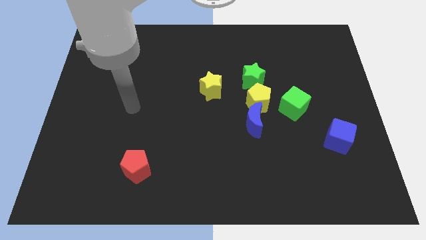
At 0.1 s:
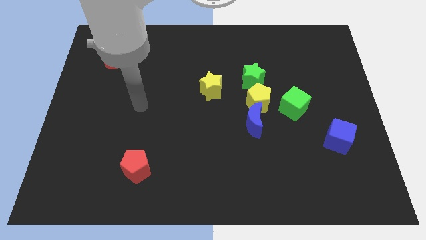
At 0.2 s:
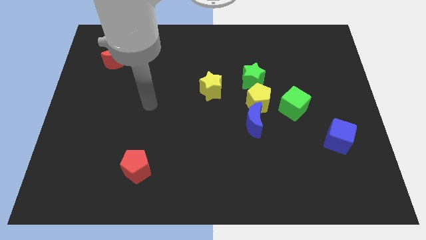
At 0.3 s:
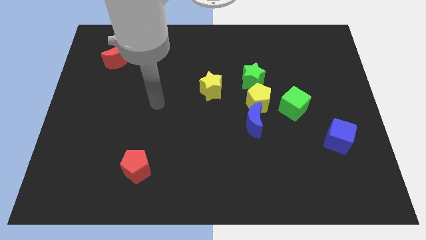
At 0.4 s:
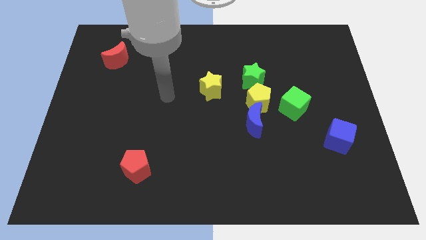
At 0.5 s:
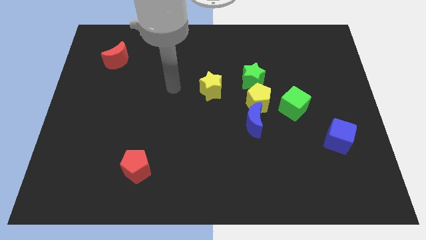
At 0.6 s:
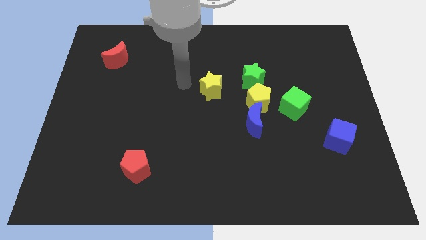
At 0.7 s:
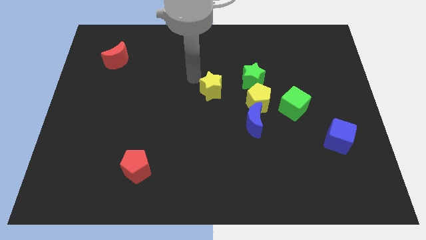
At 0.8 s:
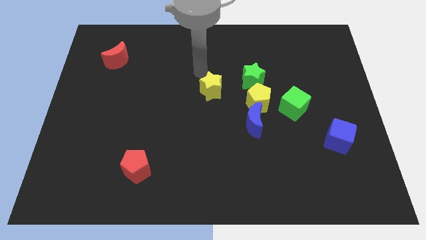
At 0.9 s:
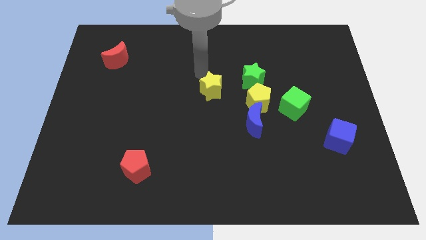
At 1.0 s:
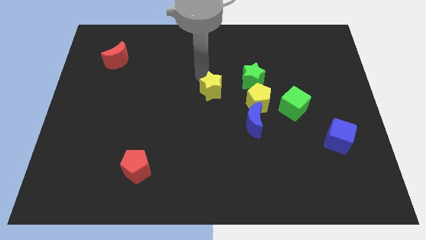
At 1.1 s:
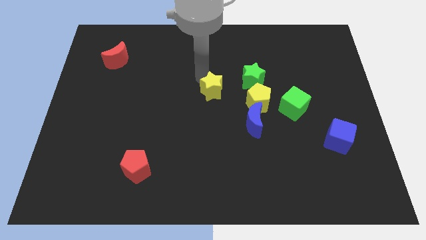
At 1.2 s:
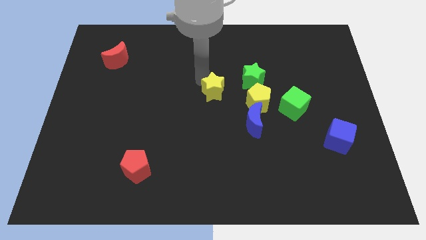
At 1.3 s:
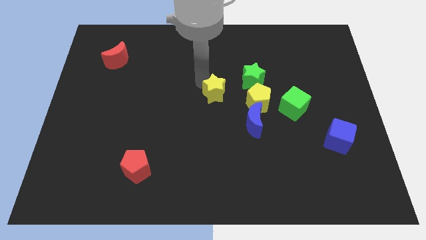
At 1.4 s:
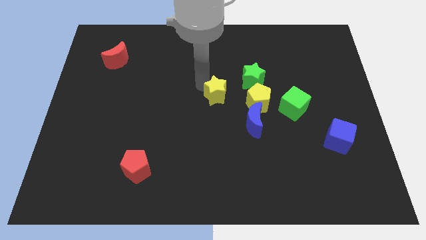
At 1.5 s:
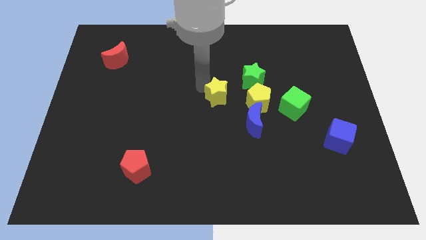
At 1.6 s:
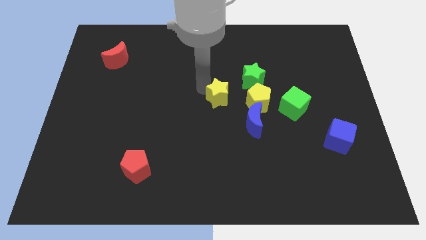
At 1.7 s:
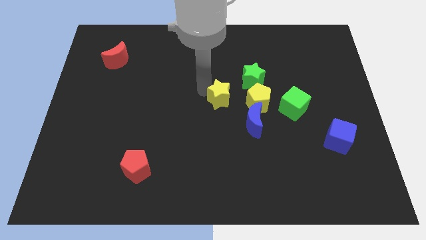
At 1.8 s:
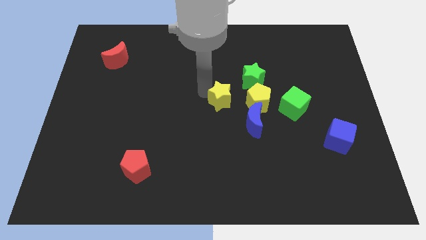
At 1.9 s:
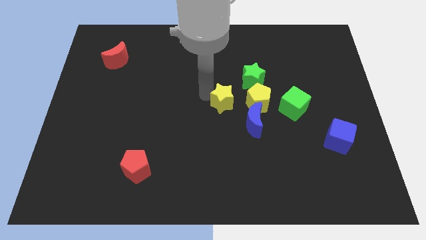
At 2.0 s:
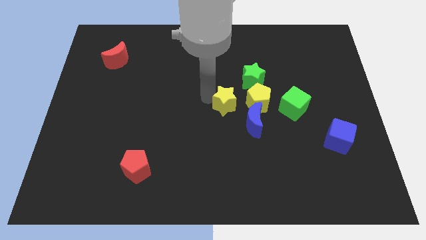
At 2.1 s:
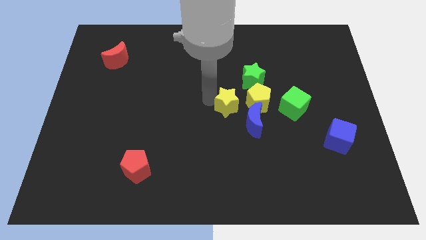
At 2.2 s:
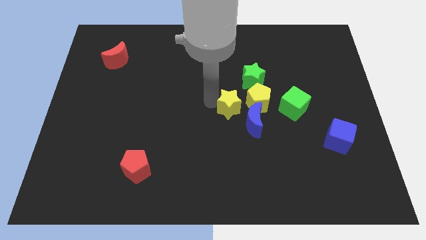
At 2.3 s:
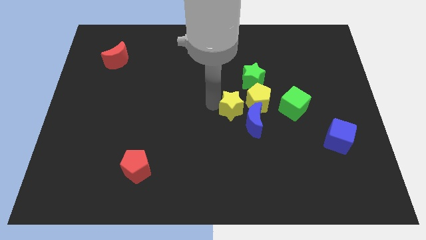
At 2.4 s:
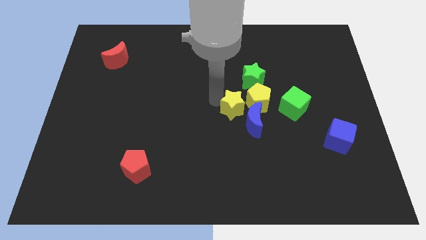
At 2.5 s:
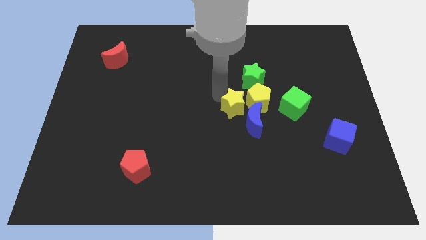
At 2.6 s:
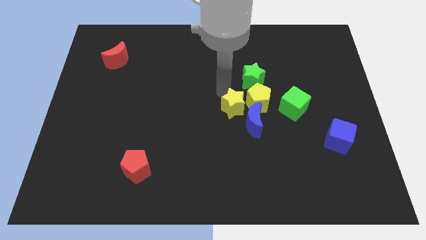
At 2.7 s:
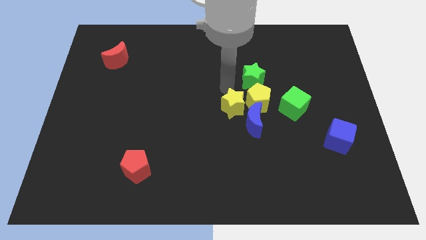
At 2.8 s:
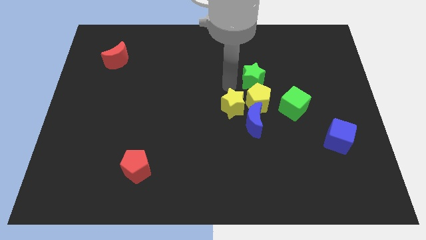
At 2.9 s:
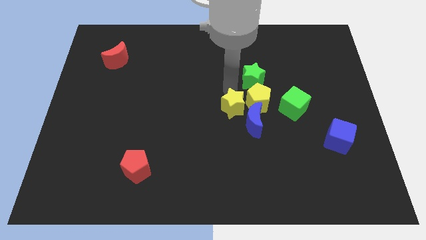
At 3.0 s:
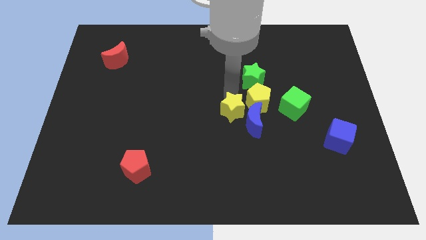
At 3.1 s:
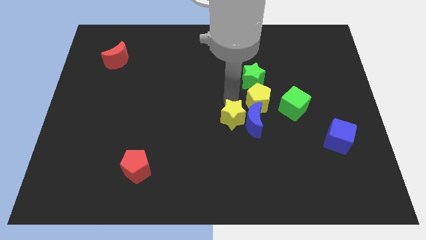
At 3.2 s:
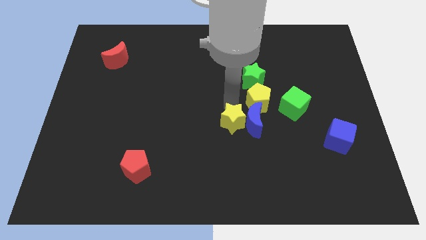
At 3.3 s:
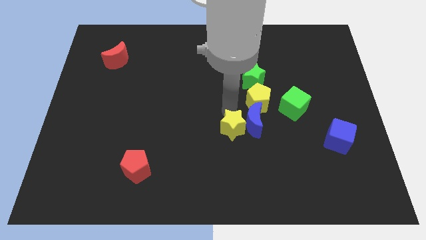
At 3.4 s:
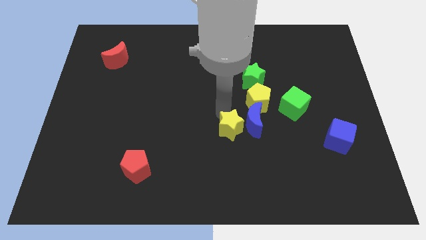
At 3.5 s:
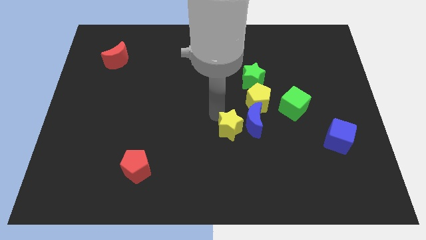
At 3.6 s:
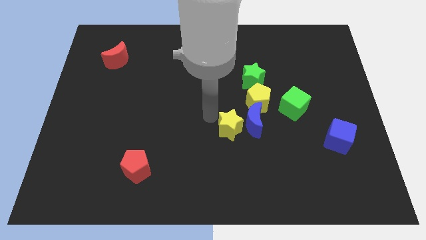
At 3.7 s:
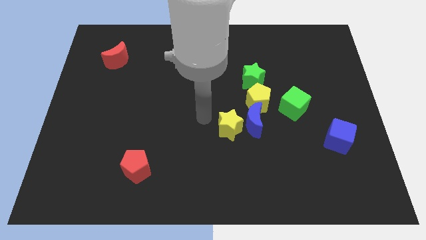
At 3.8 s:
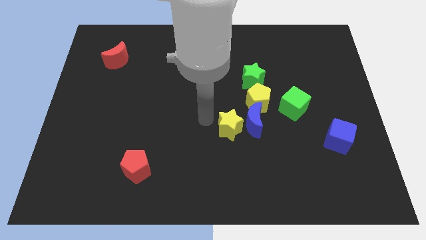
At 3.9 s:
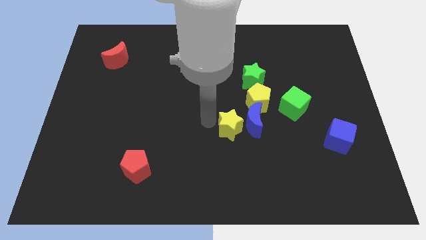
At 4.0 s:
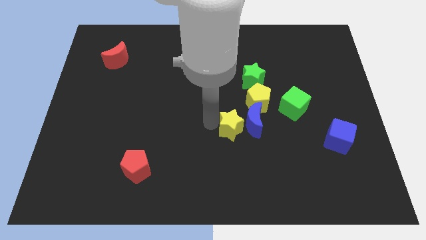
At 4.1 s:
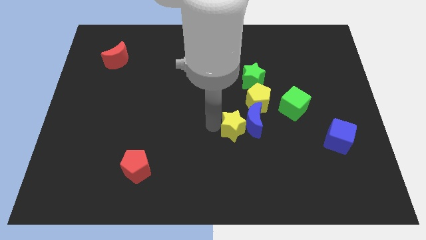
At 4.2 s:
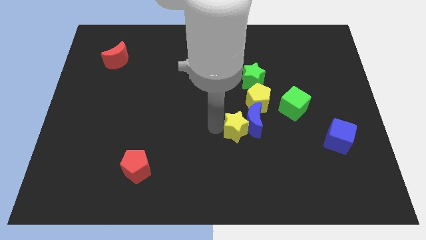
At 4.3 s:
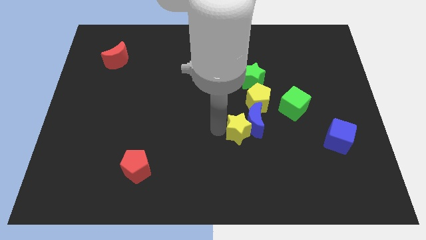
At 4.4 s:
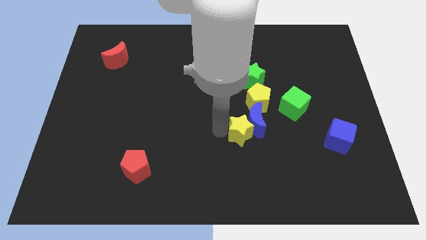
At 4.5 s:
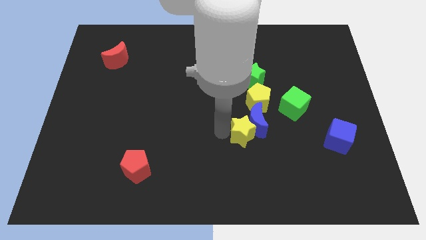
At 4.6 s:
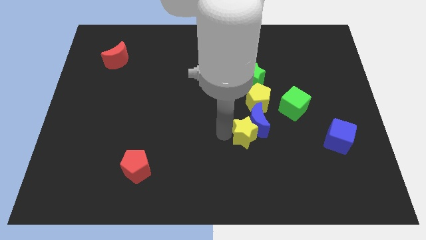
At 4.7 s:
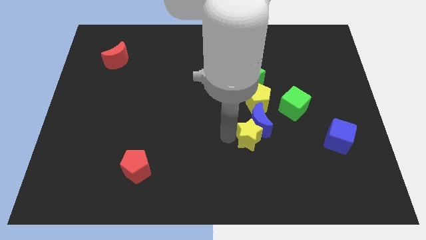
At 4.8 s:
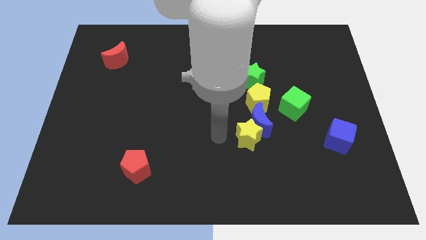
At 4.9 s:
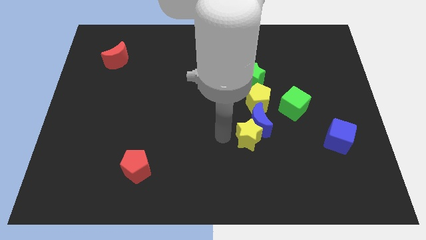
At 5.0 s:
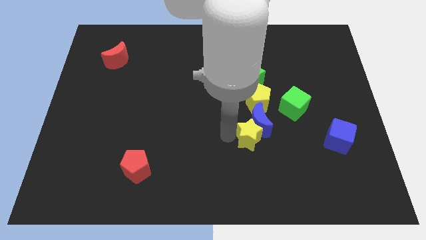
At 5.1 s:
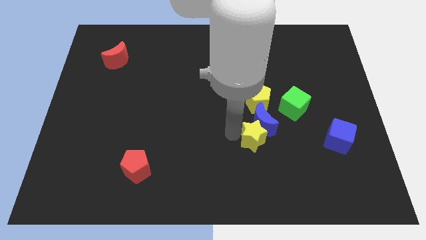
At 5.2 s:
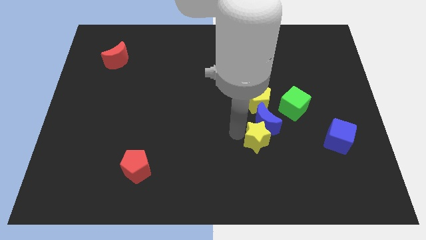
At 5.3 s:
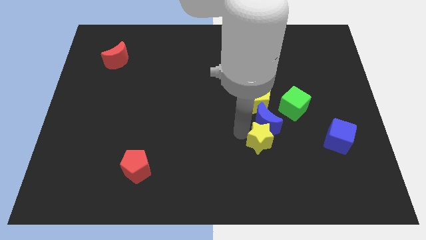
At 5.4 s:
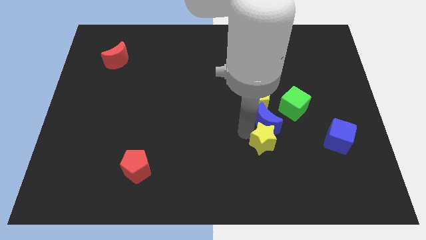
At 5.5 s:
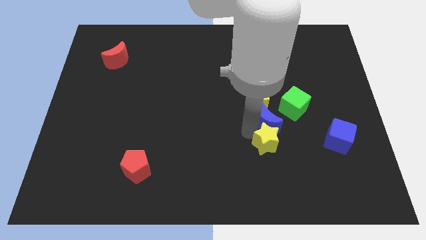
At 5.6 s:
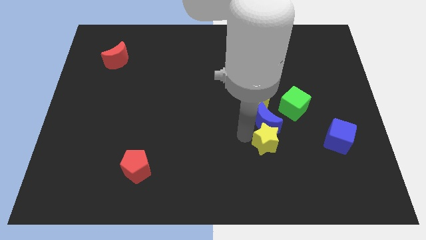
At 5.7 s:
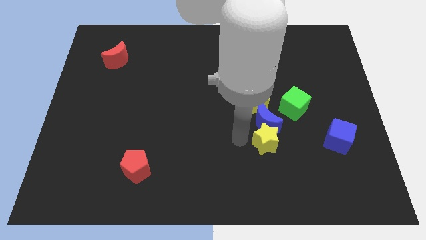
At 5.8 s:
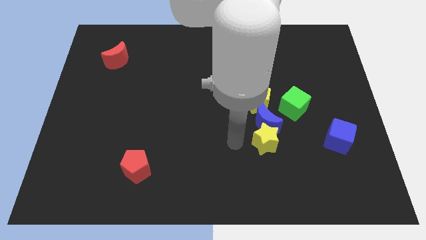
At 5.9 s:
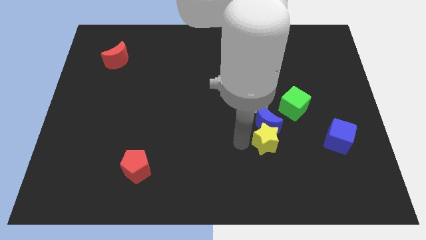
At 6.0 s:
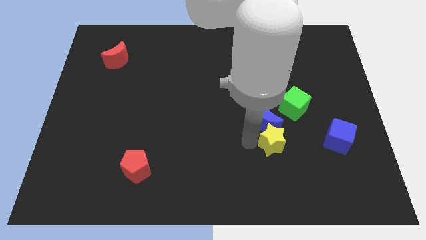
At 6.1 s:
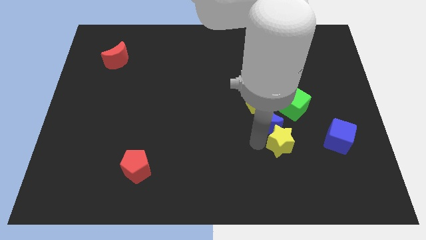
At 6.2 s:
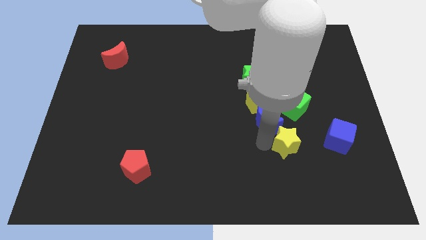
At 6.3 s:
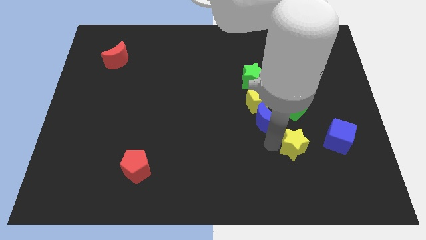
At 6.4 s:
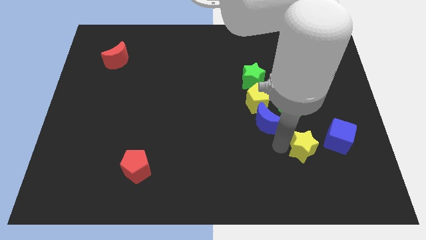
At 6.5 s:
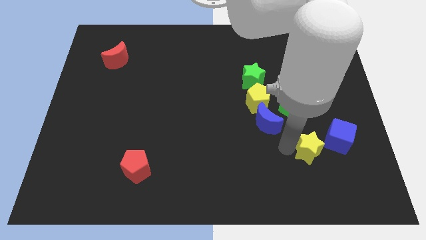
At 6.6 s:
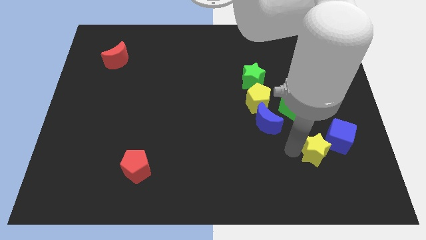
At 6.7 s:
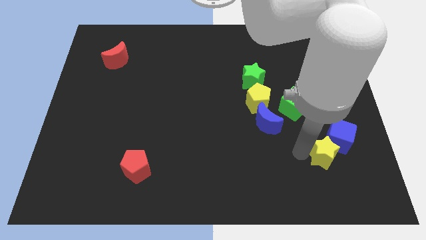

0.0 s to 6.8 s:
move the yellow star to the blue cube

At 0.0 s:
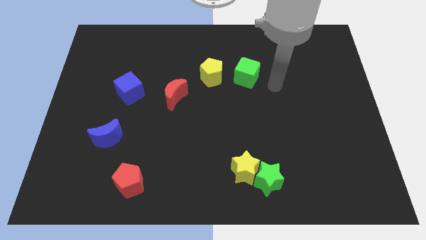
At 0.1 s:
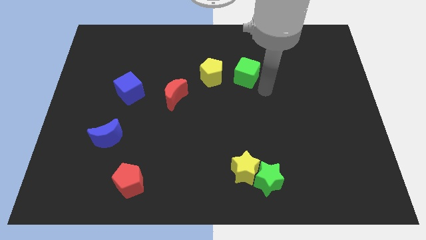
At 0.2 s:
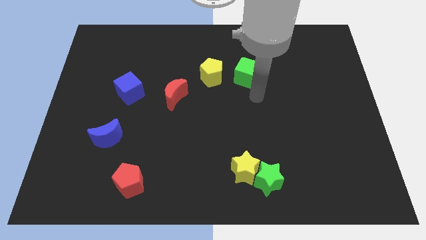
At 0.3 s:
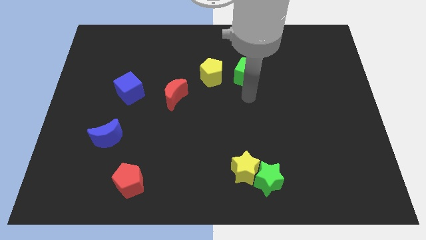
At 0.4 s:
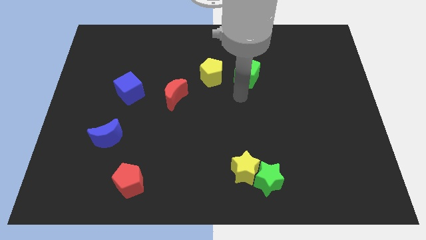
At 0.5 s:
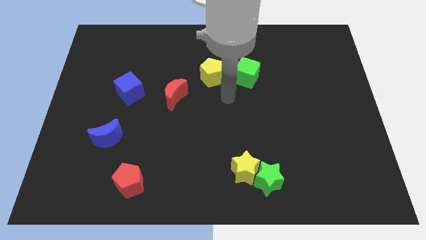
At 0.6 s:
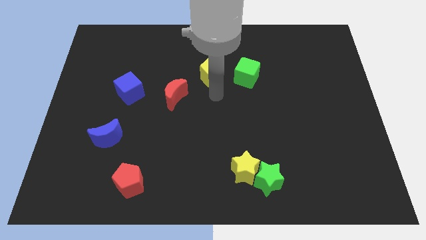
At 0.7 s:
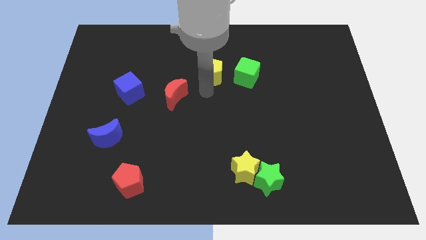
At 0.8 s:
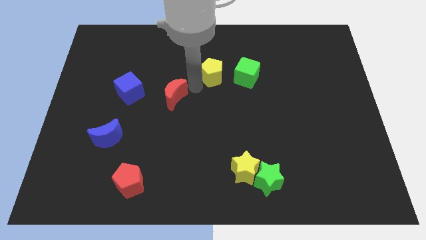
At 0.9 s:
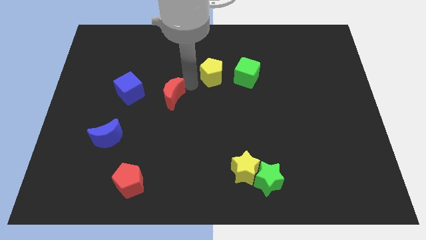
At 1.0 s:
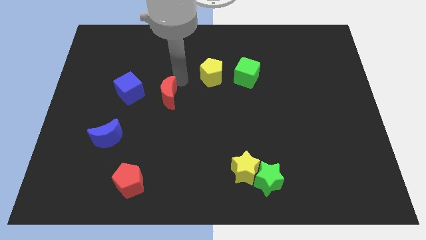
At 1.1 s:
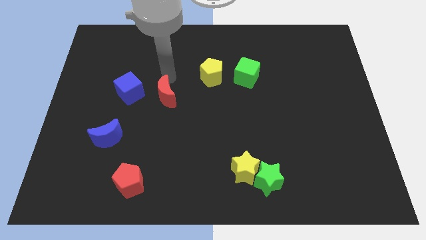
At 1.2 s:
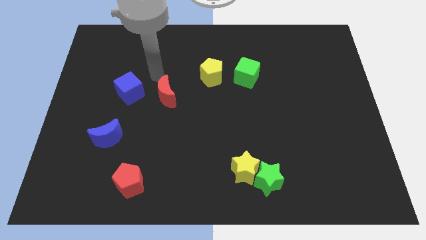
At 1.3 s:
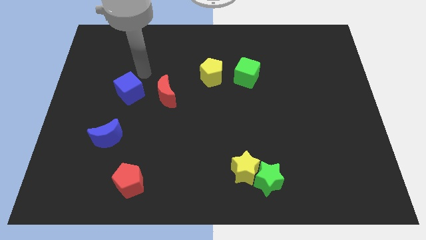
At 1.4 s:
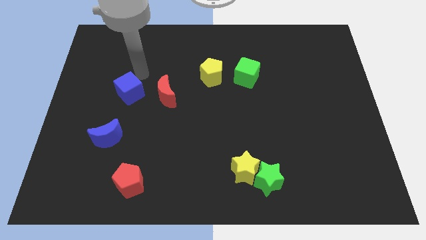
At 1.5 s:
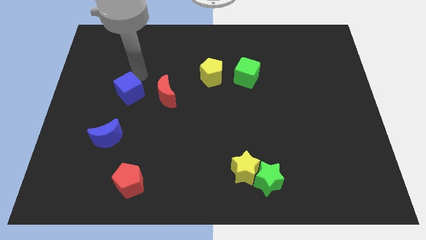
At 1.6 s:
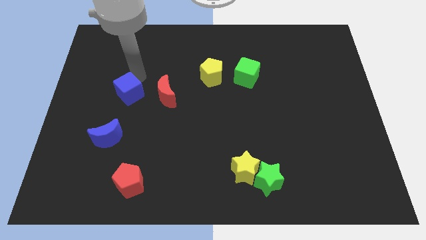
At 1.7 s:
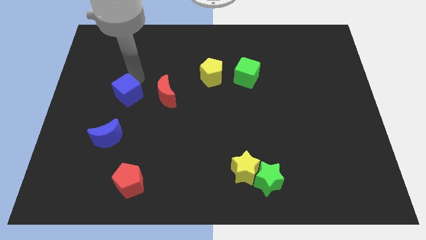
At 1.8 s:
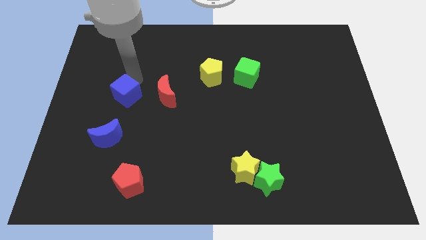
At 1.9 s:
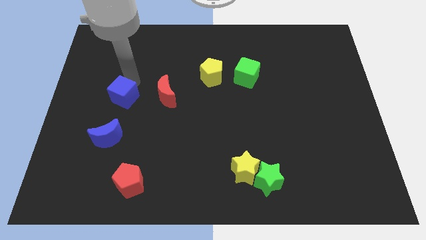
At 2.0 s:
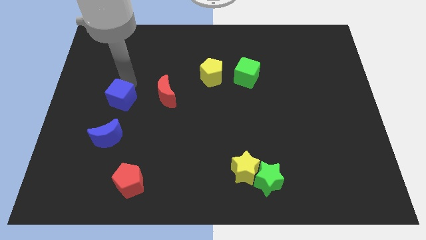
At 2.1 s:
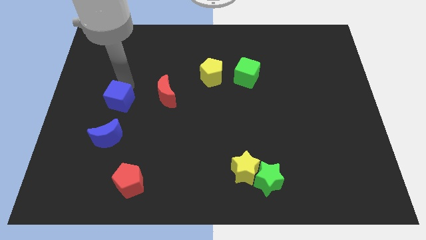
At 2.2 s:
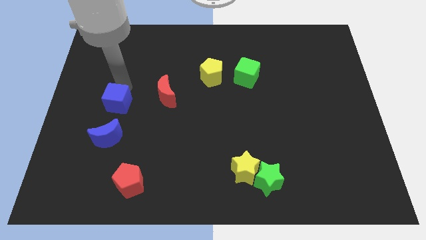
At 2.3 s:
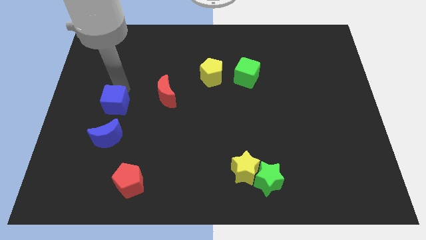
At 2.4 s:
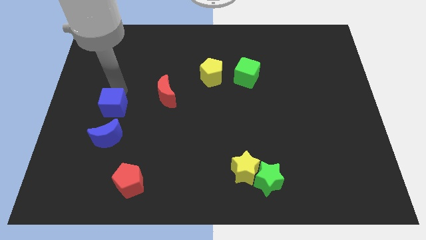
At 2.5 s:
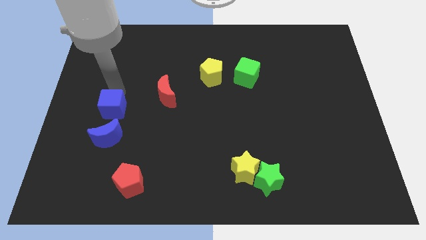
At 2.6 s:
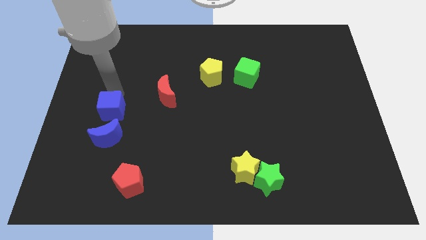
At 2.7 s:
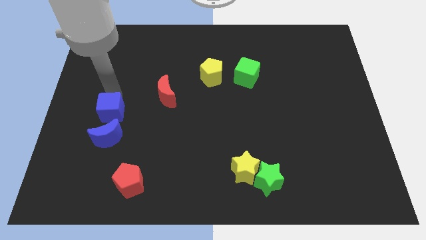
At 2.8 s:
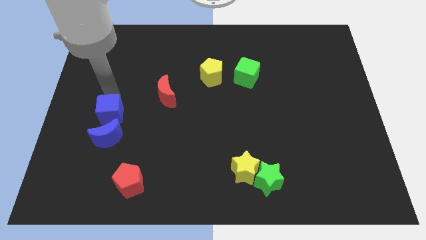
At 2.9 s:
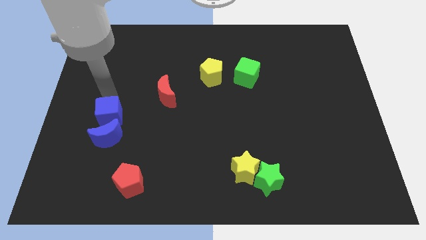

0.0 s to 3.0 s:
put the blue cube close to the blue moon
